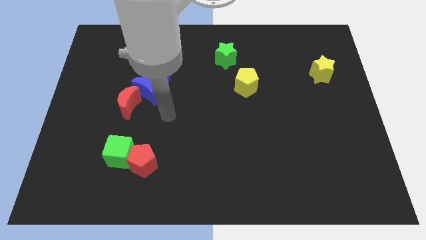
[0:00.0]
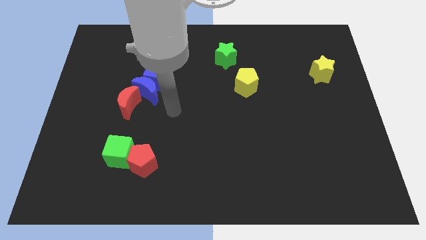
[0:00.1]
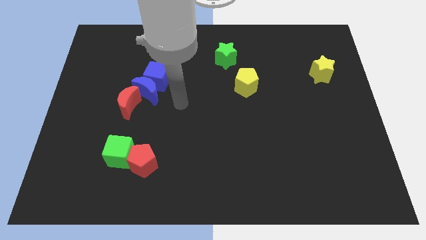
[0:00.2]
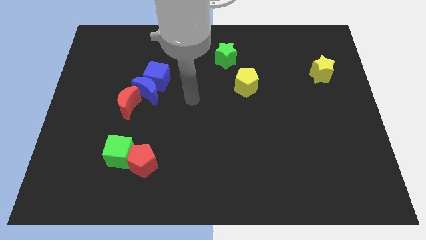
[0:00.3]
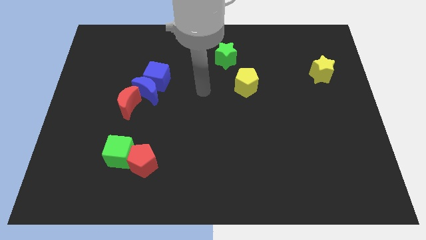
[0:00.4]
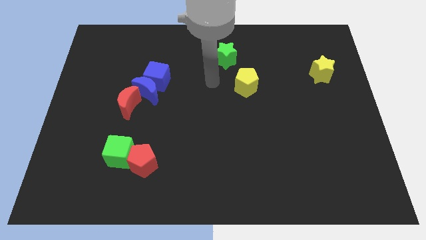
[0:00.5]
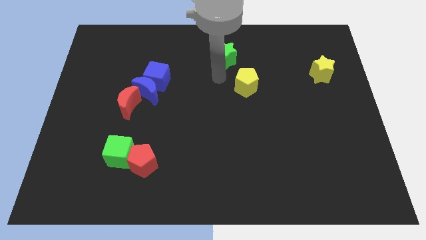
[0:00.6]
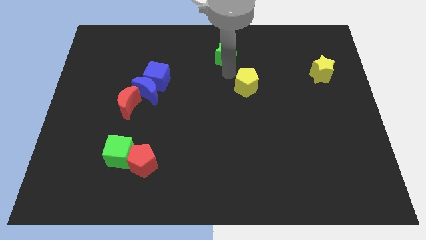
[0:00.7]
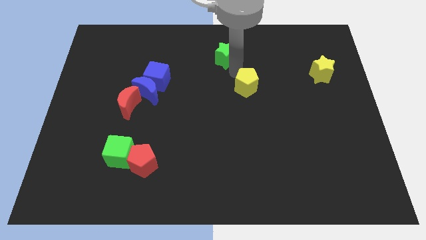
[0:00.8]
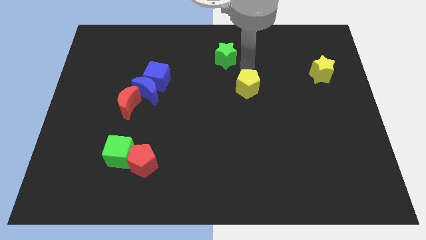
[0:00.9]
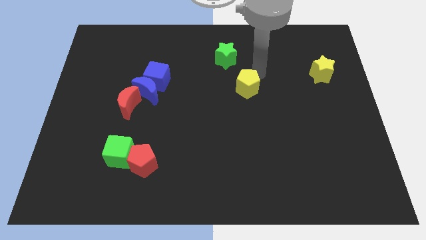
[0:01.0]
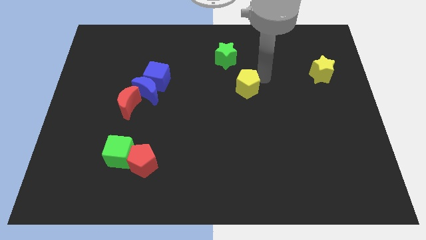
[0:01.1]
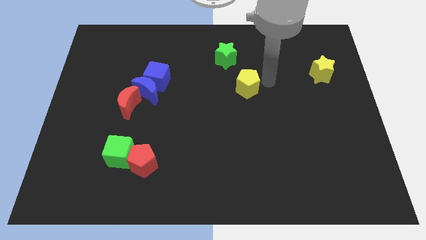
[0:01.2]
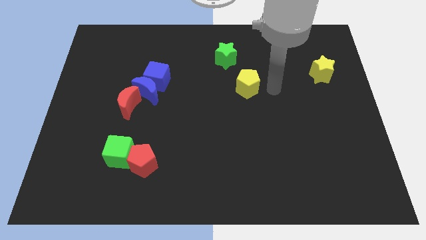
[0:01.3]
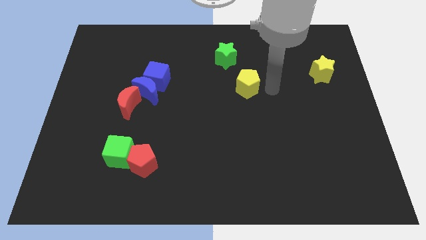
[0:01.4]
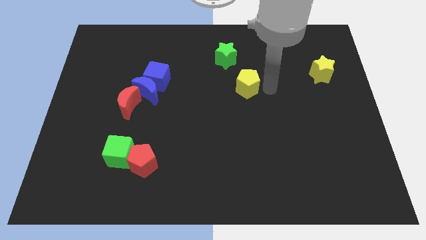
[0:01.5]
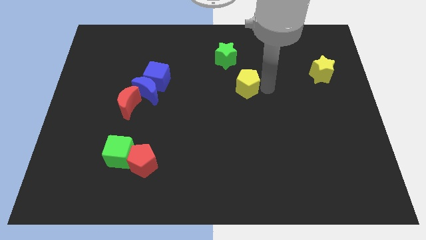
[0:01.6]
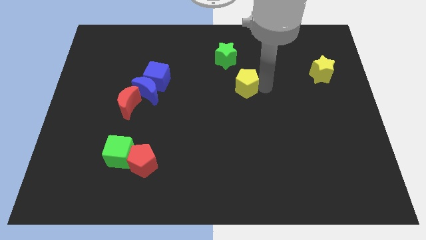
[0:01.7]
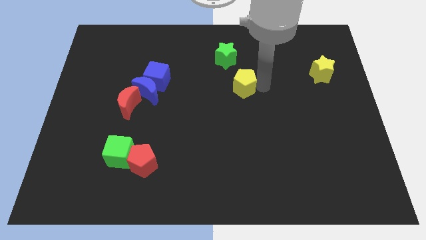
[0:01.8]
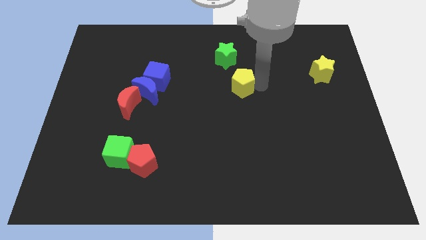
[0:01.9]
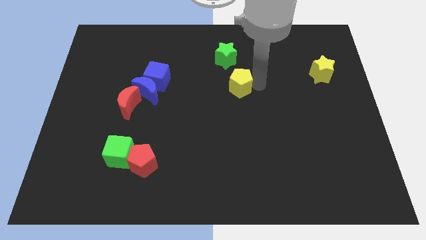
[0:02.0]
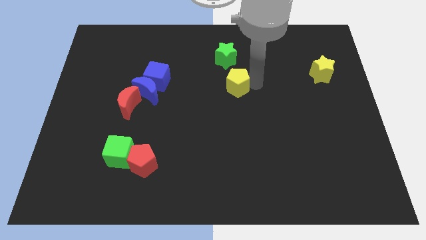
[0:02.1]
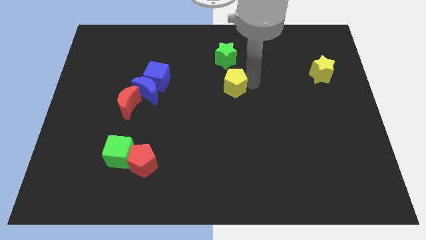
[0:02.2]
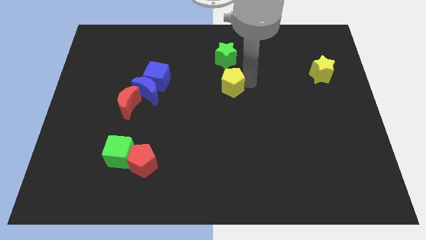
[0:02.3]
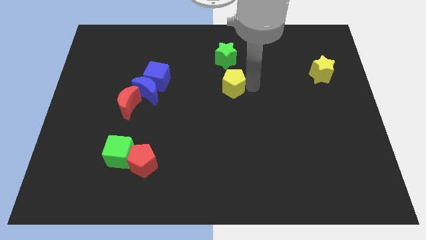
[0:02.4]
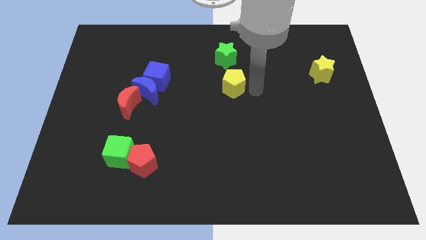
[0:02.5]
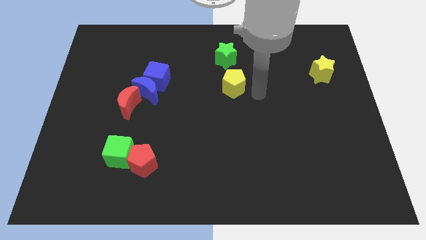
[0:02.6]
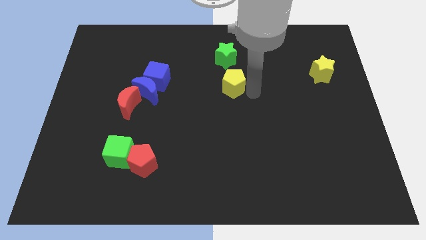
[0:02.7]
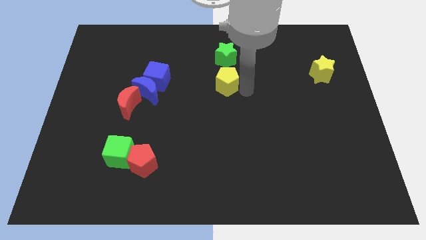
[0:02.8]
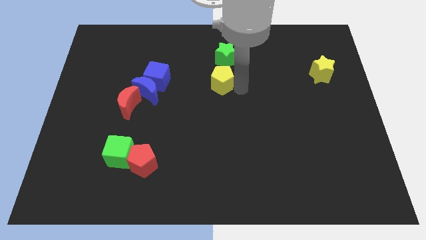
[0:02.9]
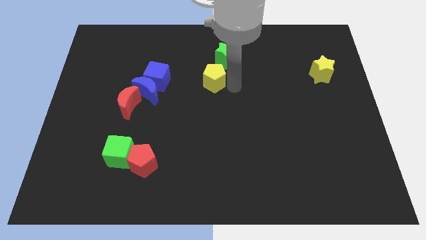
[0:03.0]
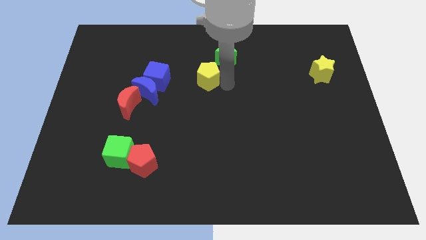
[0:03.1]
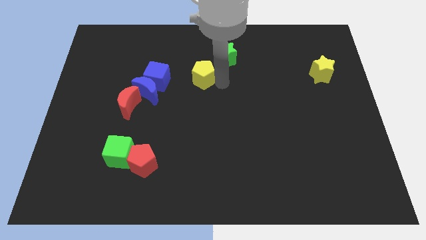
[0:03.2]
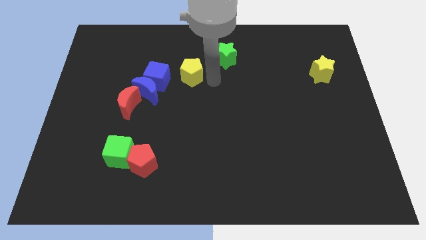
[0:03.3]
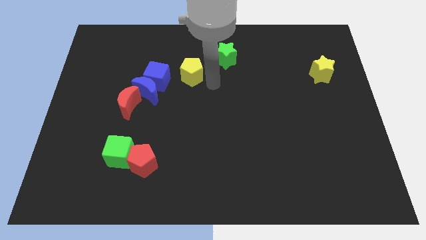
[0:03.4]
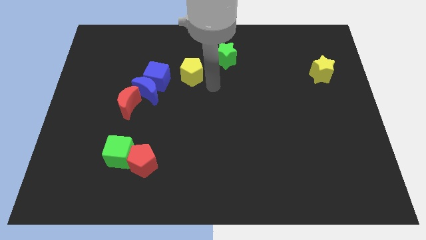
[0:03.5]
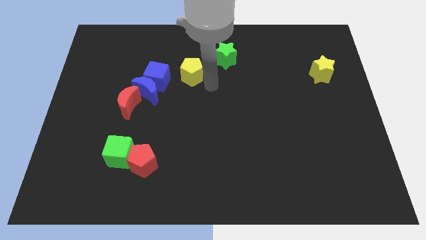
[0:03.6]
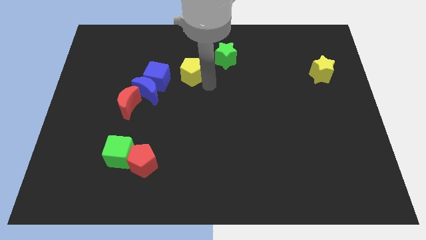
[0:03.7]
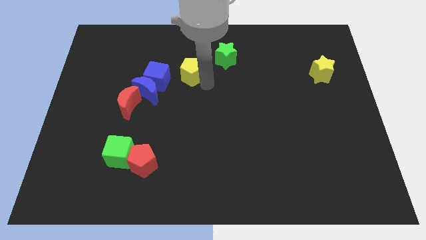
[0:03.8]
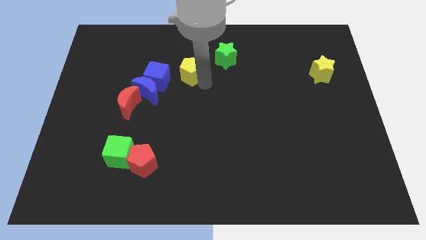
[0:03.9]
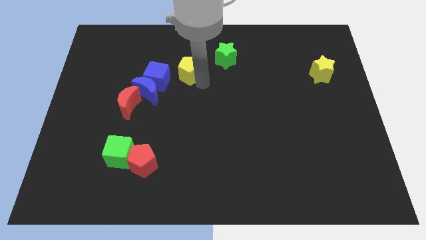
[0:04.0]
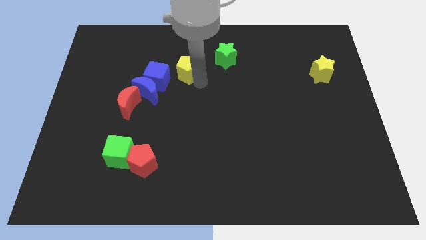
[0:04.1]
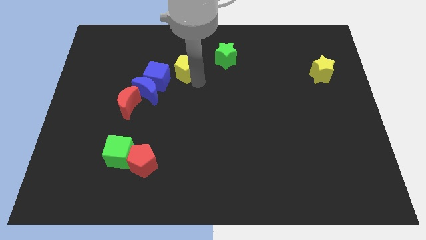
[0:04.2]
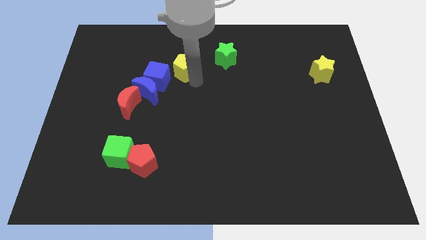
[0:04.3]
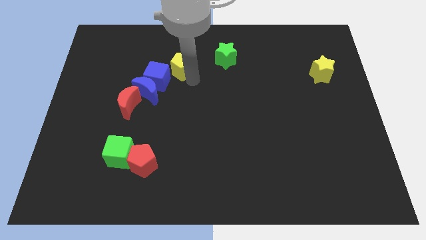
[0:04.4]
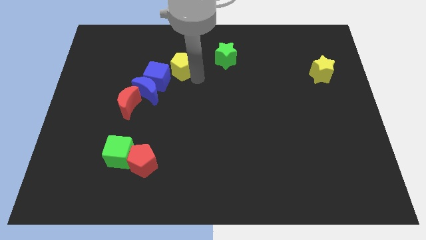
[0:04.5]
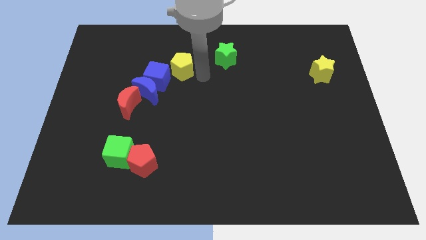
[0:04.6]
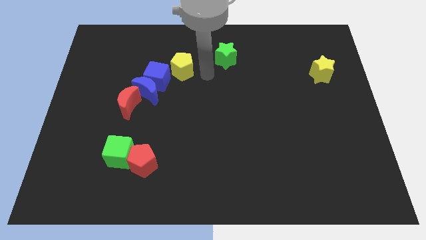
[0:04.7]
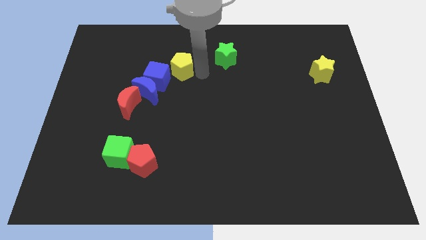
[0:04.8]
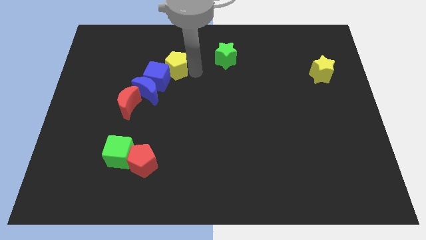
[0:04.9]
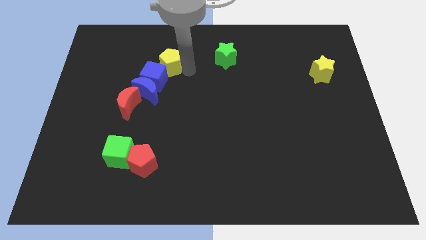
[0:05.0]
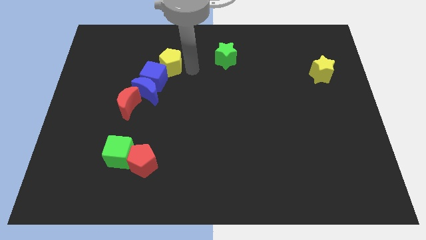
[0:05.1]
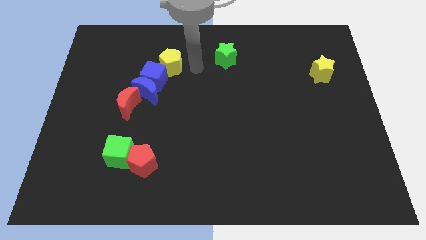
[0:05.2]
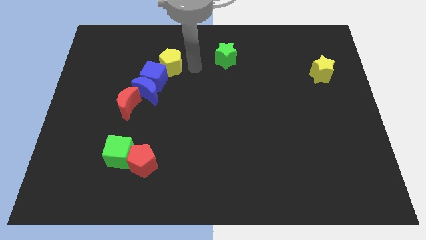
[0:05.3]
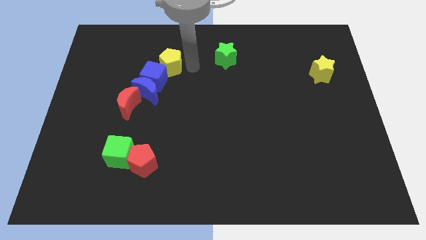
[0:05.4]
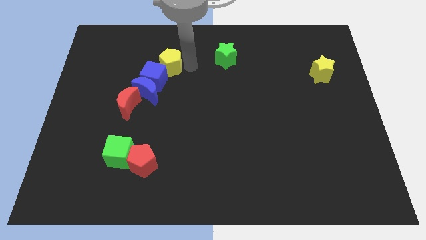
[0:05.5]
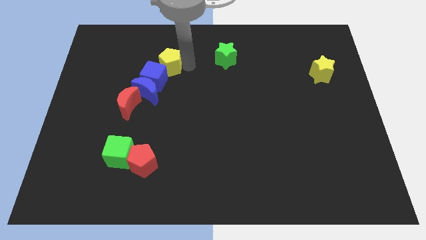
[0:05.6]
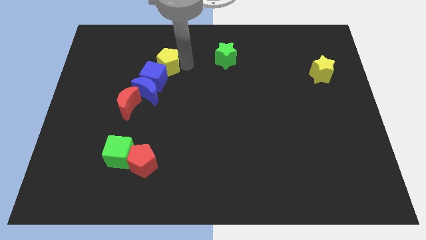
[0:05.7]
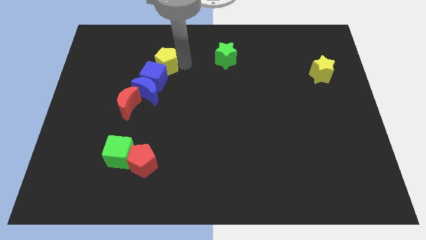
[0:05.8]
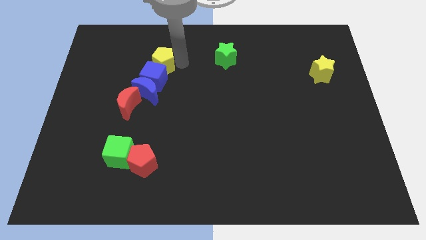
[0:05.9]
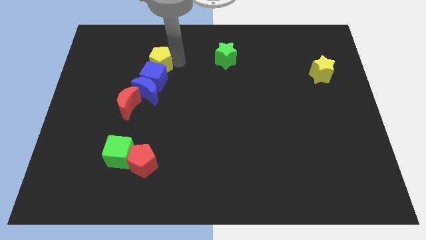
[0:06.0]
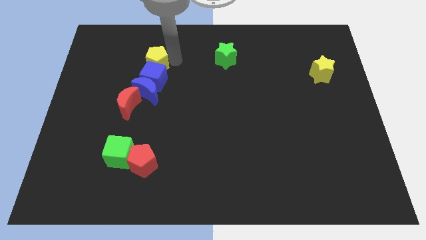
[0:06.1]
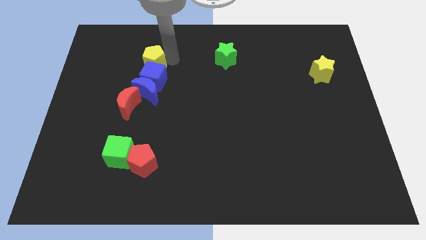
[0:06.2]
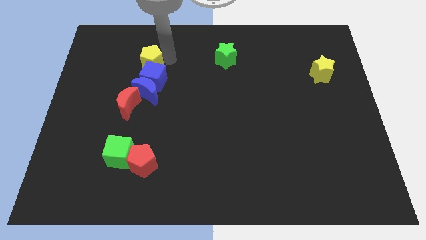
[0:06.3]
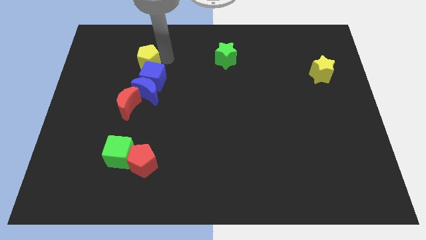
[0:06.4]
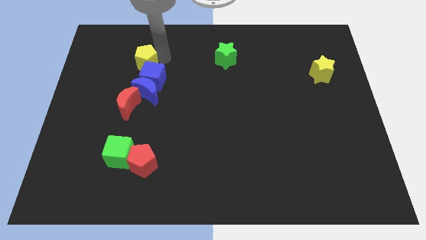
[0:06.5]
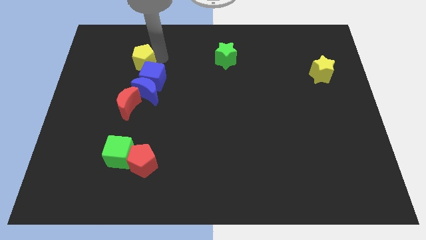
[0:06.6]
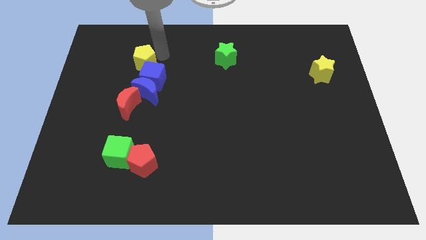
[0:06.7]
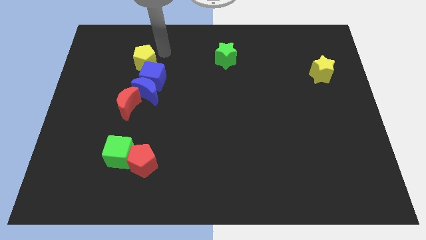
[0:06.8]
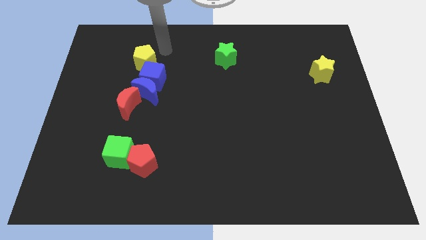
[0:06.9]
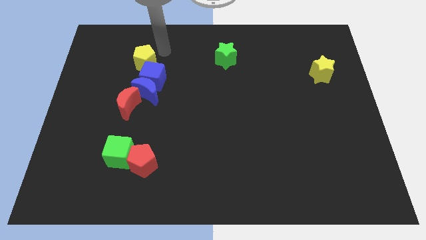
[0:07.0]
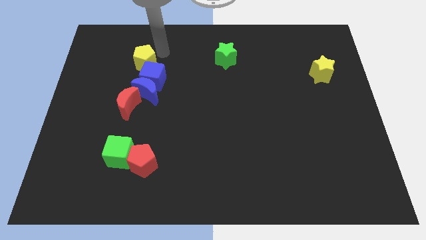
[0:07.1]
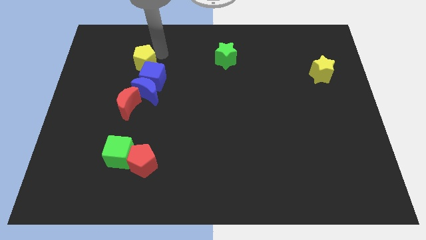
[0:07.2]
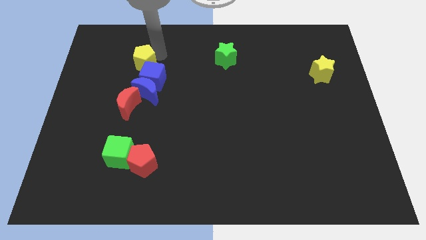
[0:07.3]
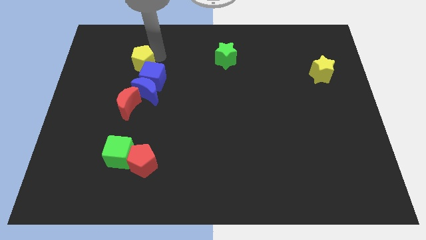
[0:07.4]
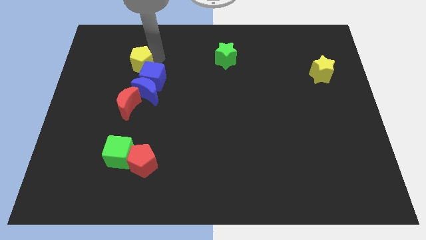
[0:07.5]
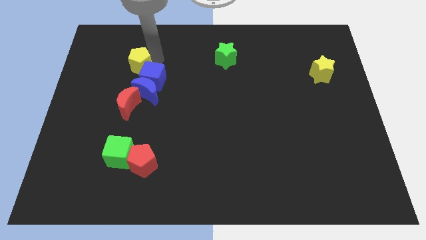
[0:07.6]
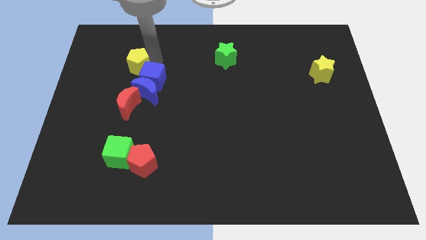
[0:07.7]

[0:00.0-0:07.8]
slide the yellow pentagon just left of the blue cube
